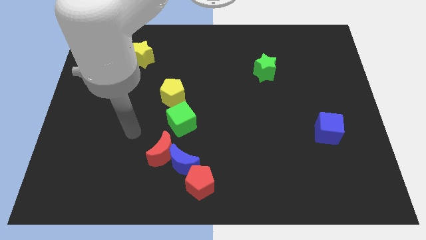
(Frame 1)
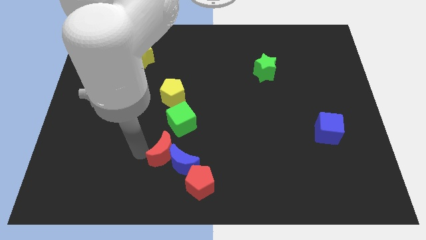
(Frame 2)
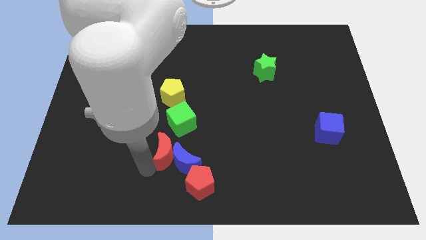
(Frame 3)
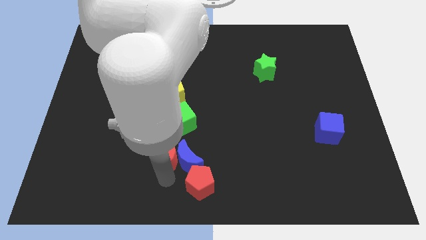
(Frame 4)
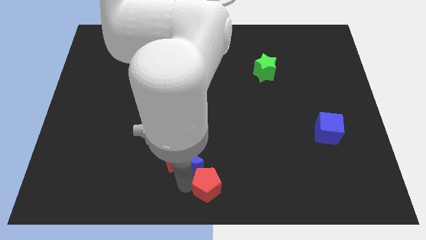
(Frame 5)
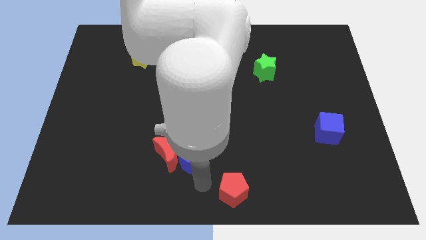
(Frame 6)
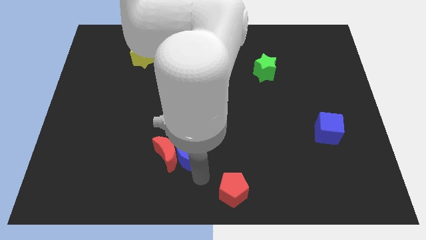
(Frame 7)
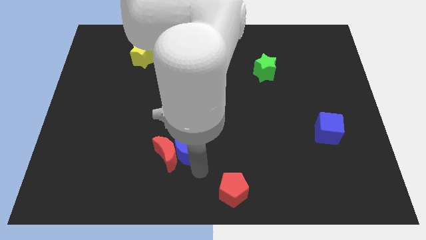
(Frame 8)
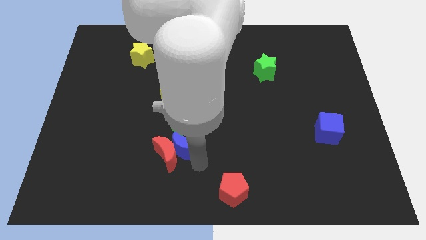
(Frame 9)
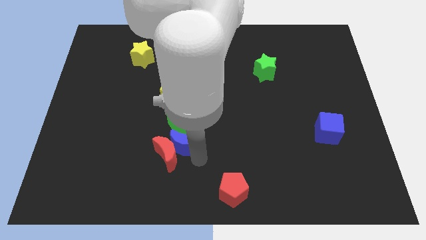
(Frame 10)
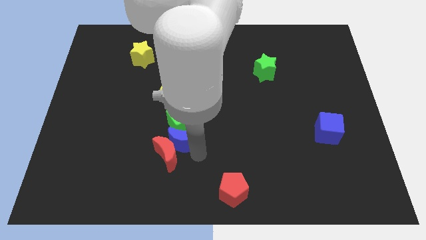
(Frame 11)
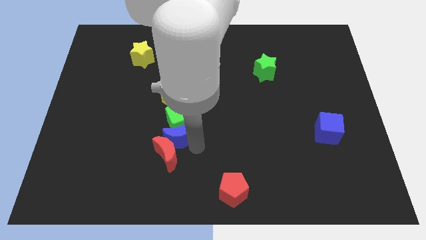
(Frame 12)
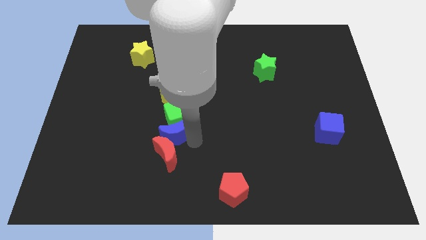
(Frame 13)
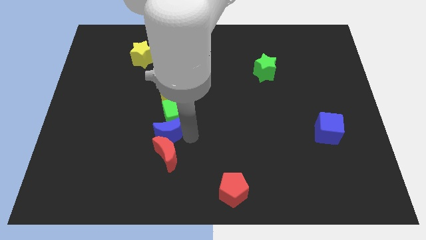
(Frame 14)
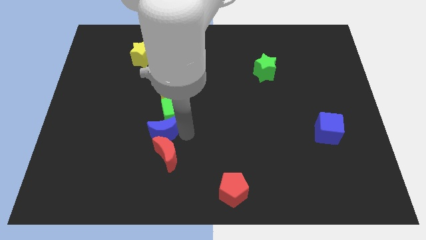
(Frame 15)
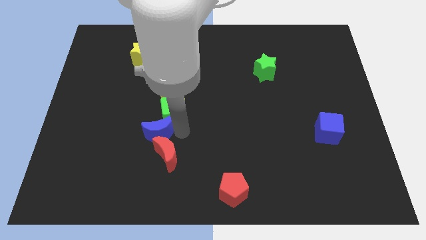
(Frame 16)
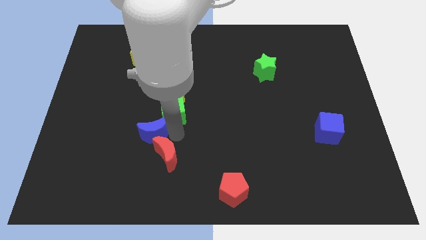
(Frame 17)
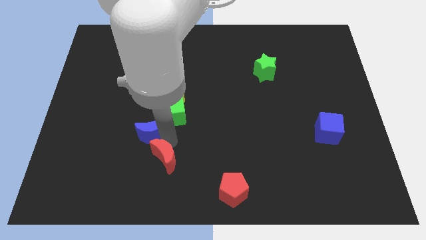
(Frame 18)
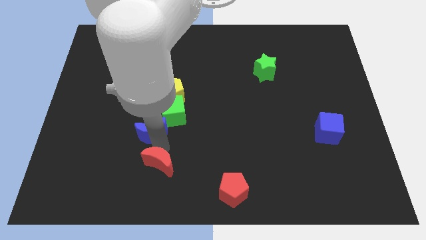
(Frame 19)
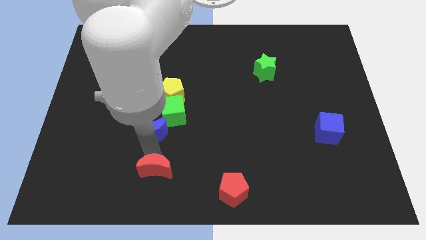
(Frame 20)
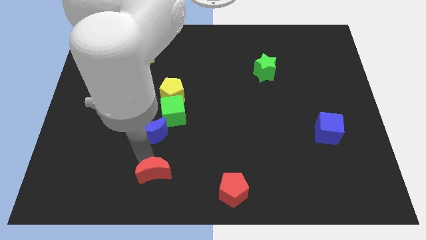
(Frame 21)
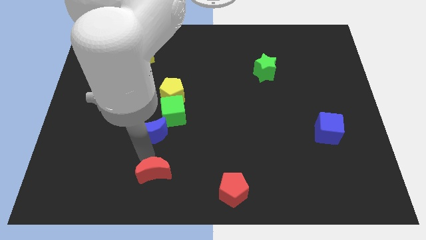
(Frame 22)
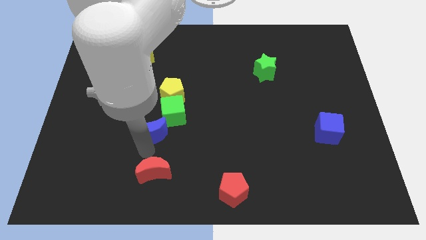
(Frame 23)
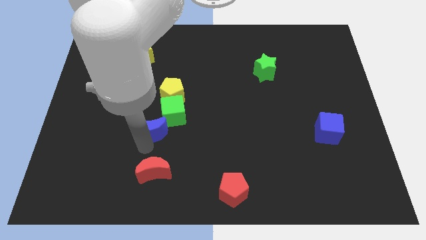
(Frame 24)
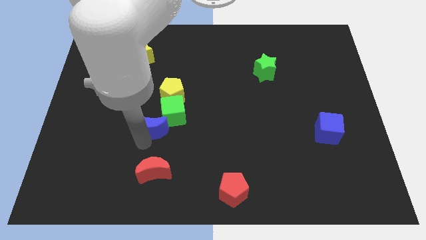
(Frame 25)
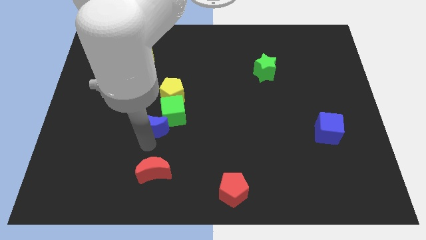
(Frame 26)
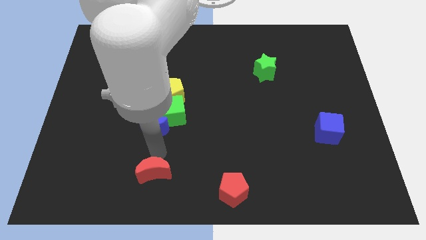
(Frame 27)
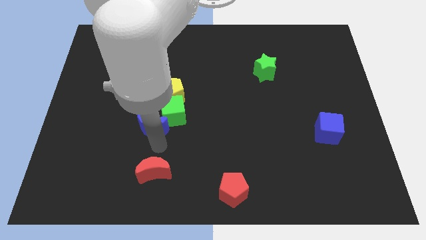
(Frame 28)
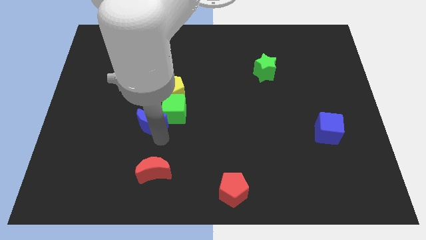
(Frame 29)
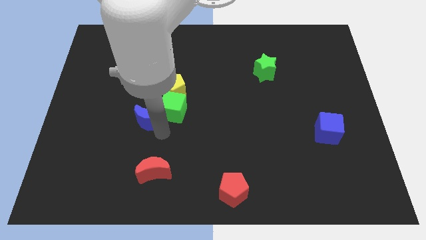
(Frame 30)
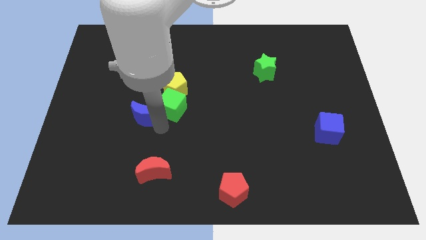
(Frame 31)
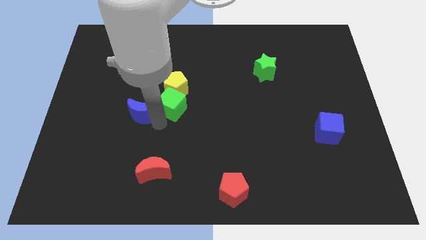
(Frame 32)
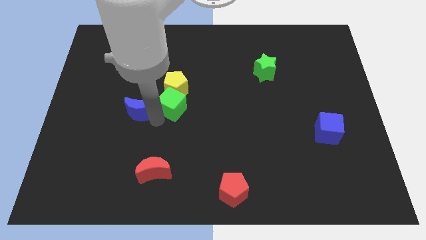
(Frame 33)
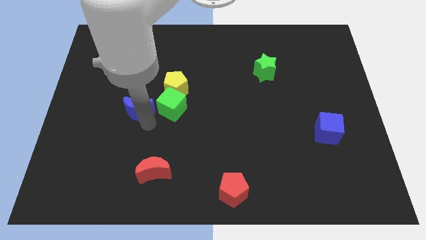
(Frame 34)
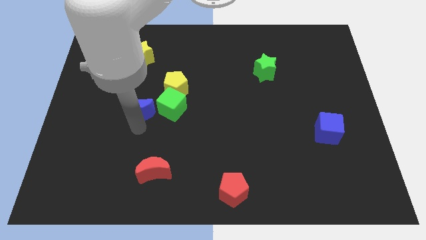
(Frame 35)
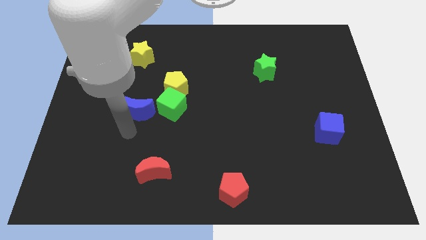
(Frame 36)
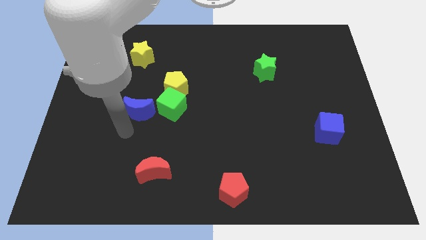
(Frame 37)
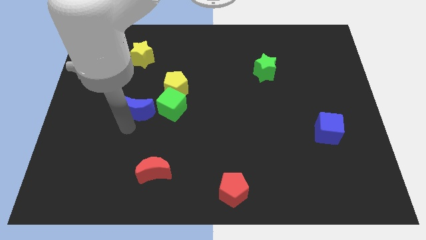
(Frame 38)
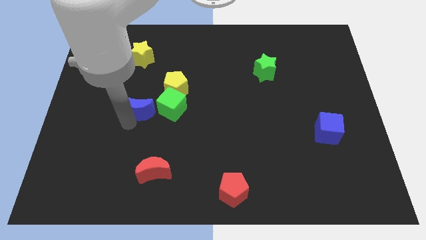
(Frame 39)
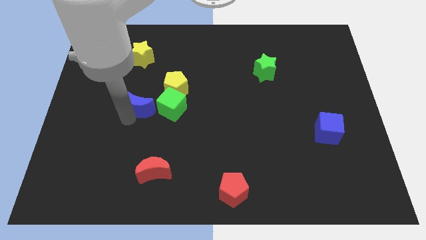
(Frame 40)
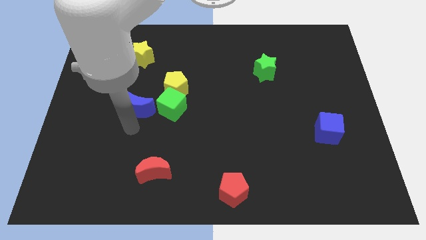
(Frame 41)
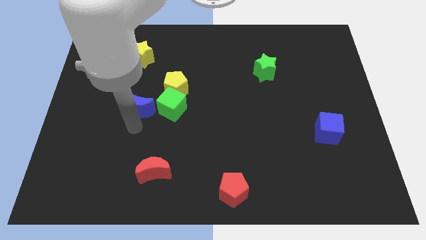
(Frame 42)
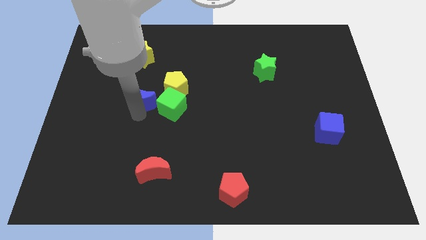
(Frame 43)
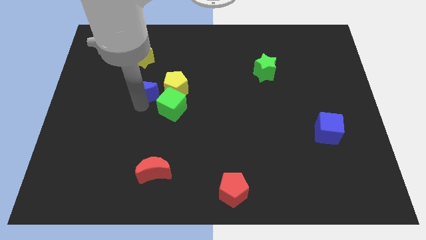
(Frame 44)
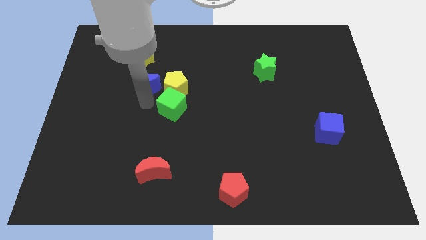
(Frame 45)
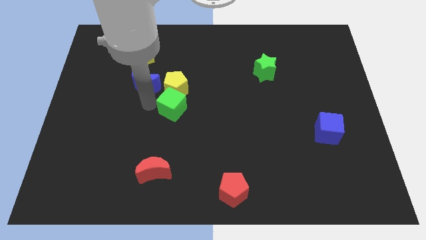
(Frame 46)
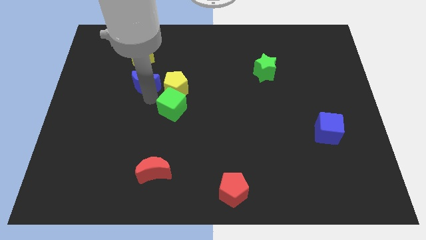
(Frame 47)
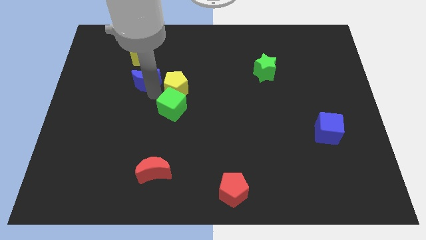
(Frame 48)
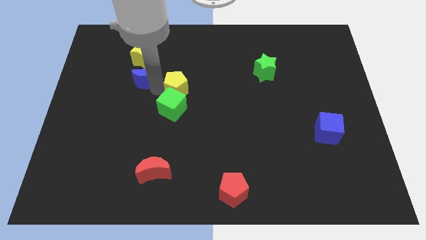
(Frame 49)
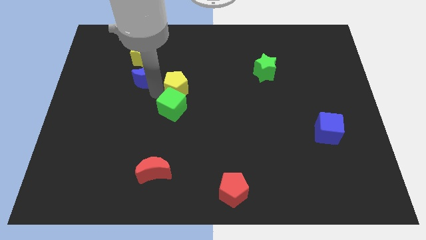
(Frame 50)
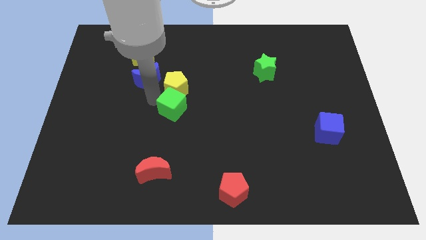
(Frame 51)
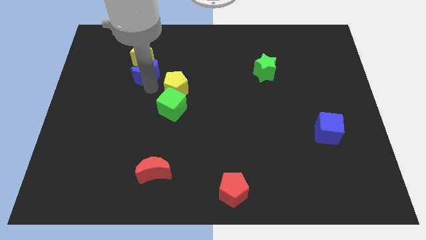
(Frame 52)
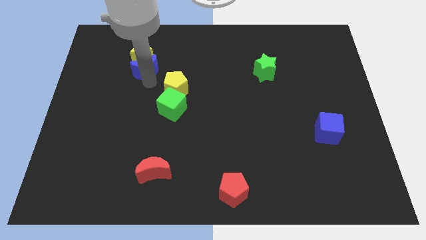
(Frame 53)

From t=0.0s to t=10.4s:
push the blue moon close to the yellow star

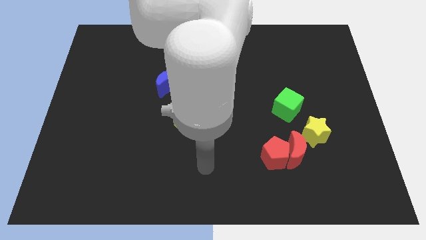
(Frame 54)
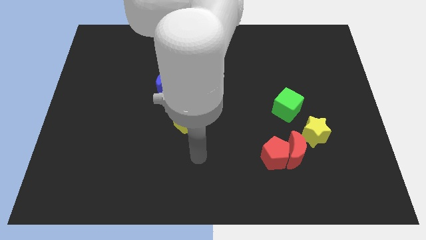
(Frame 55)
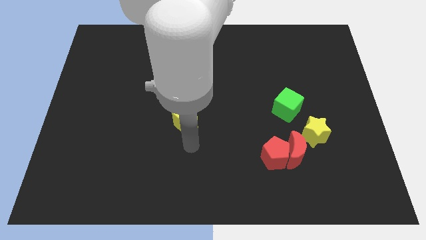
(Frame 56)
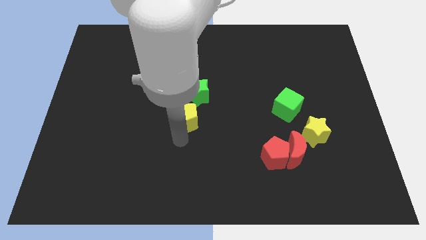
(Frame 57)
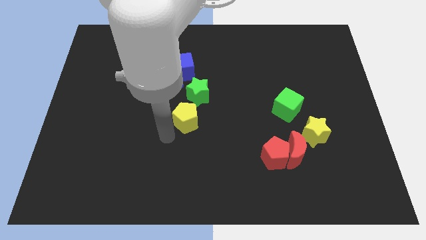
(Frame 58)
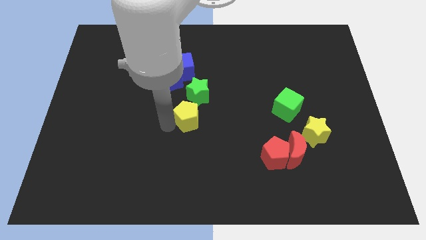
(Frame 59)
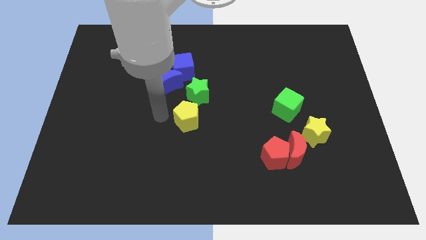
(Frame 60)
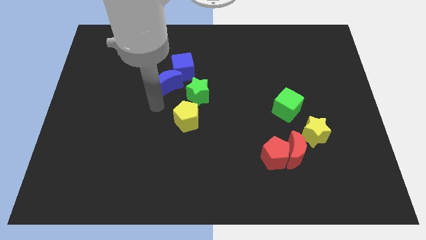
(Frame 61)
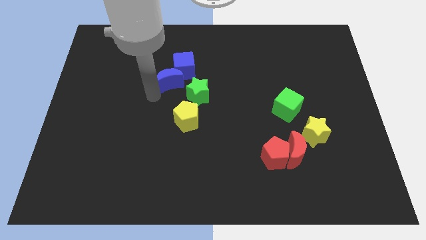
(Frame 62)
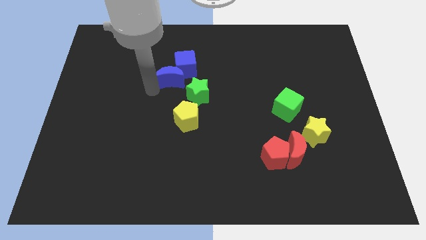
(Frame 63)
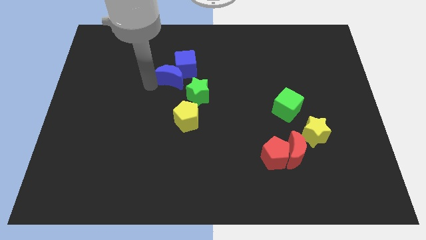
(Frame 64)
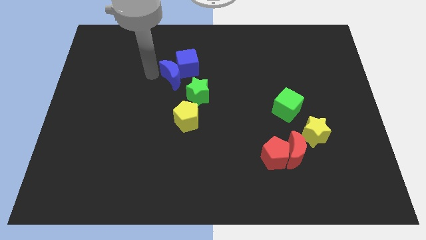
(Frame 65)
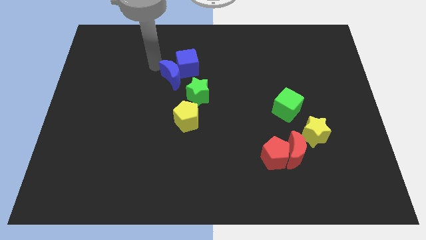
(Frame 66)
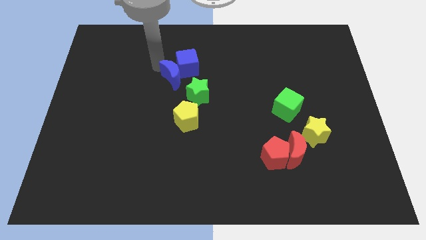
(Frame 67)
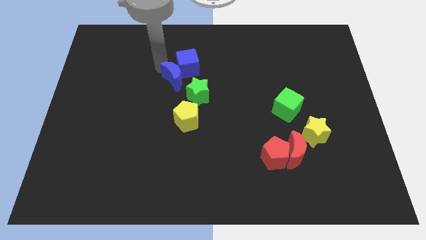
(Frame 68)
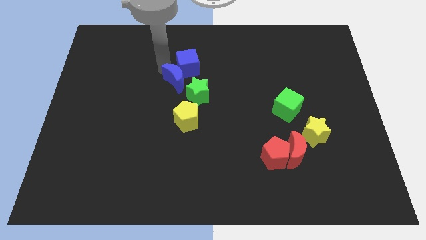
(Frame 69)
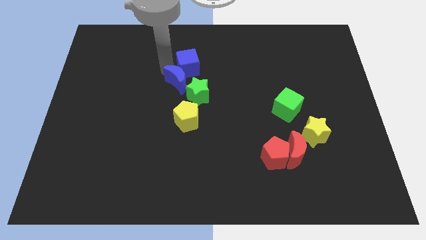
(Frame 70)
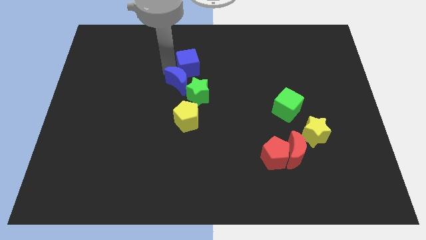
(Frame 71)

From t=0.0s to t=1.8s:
move the blue moon towards the green star

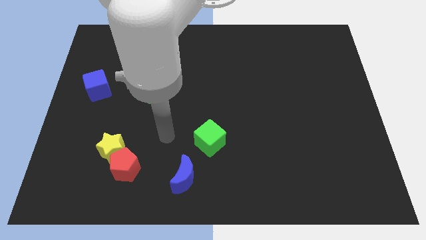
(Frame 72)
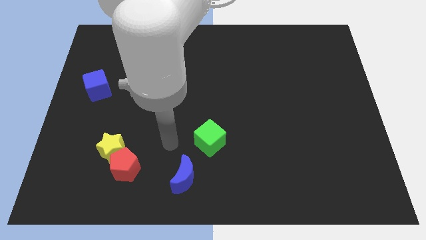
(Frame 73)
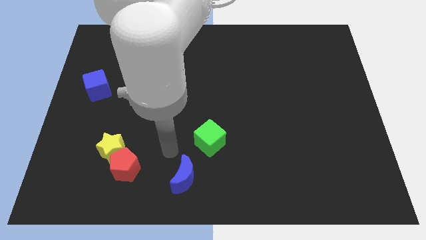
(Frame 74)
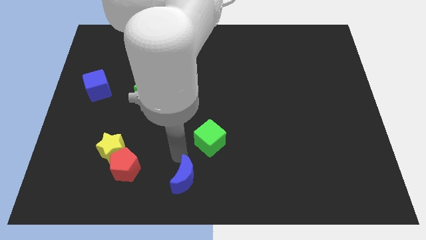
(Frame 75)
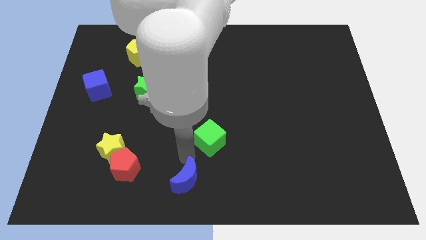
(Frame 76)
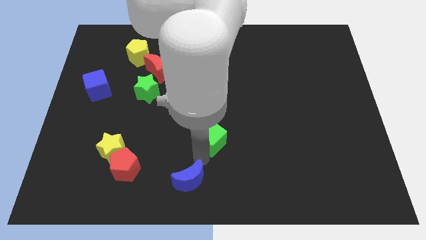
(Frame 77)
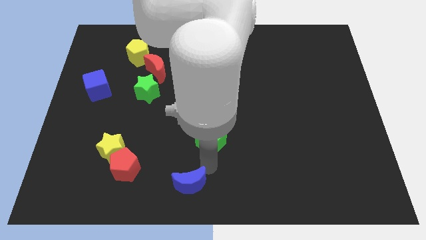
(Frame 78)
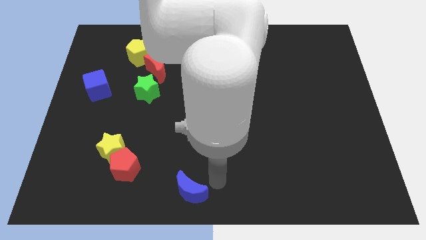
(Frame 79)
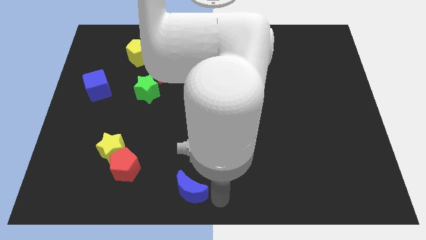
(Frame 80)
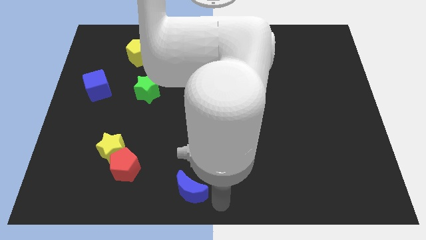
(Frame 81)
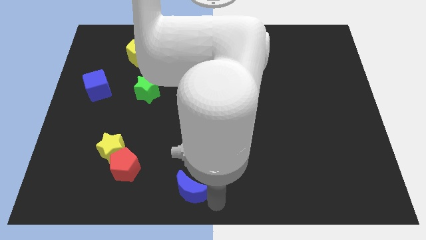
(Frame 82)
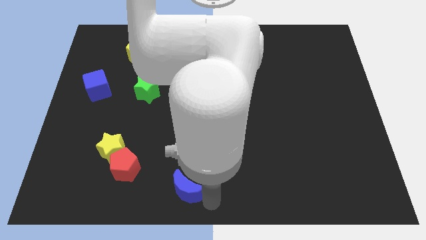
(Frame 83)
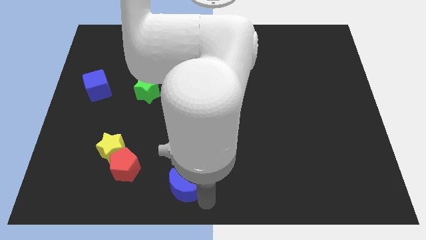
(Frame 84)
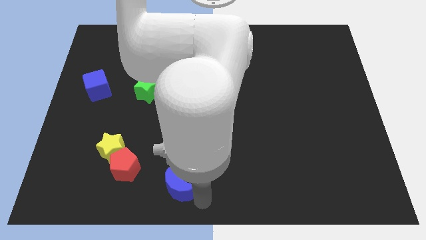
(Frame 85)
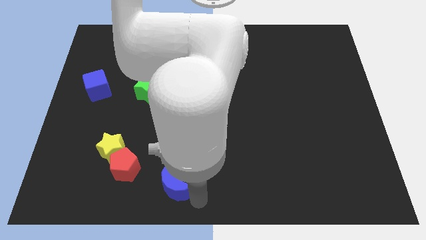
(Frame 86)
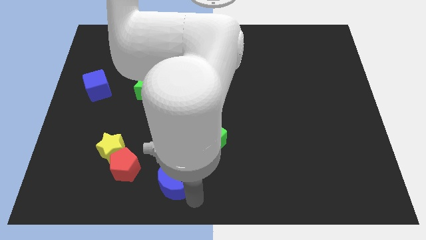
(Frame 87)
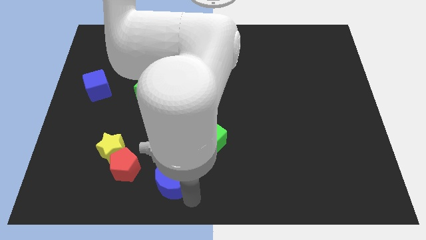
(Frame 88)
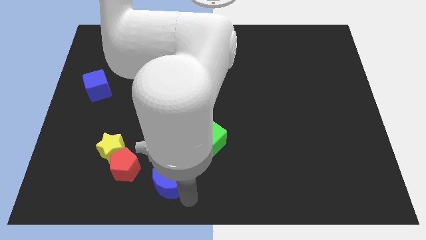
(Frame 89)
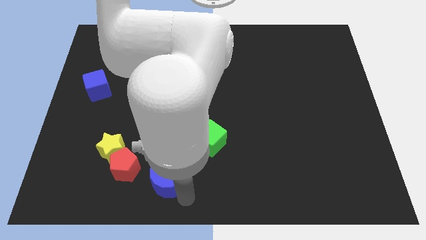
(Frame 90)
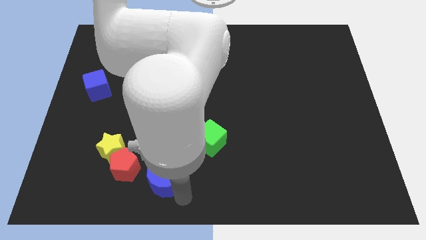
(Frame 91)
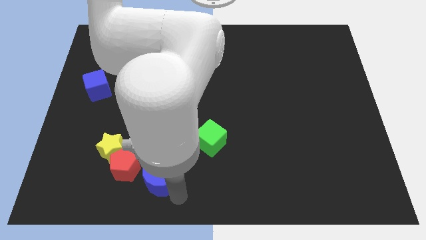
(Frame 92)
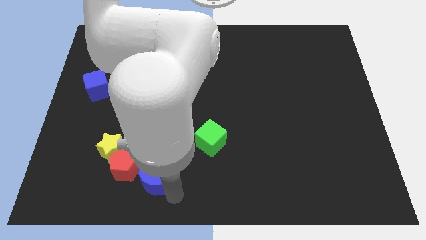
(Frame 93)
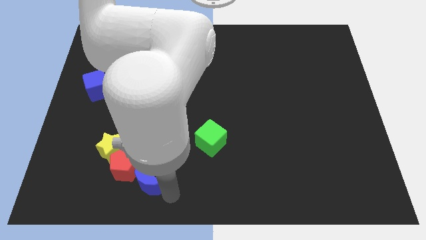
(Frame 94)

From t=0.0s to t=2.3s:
push the blue moon next to the red pentagon
